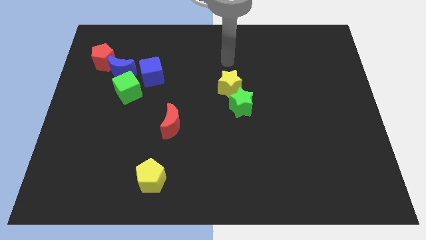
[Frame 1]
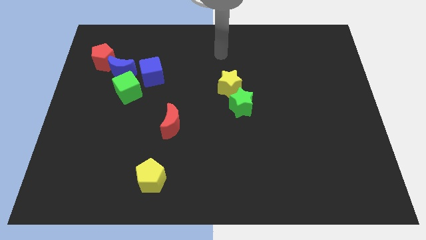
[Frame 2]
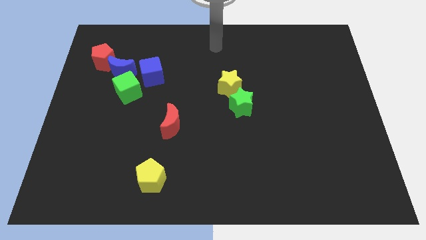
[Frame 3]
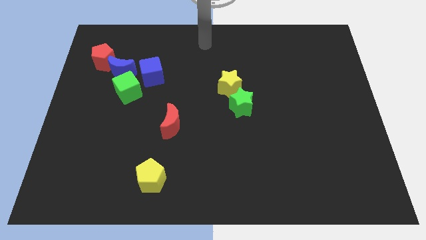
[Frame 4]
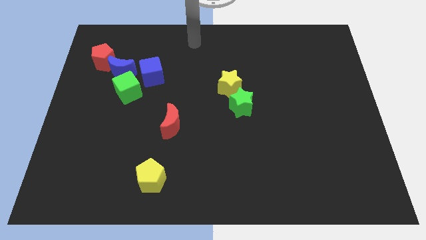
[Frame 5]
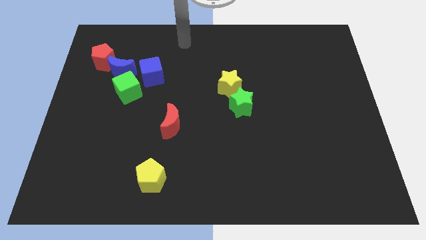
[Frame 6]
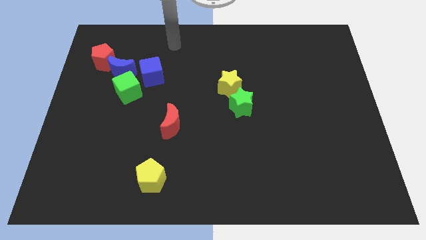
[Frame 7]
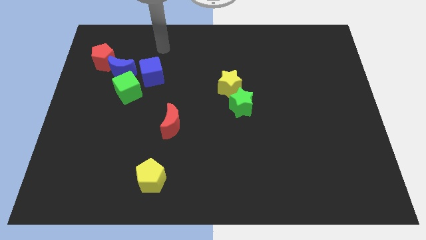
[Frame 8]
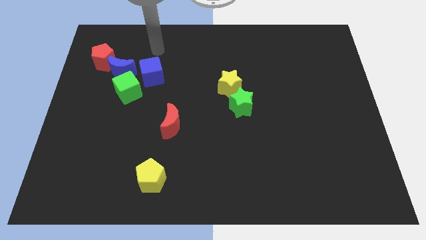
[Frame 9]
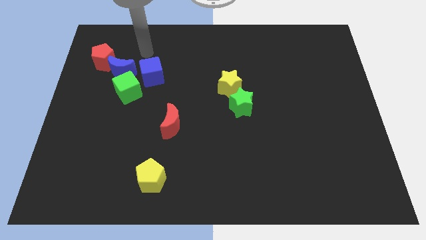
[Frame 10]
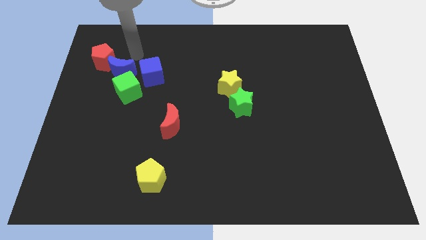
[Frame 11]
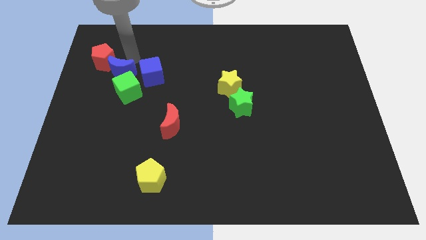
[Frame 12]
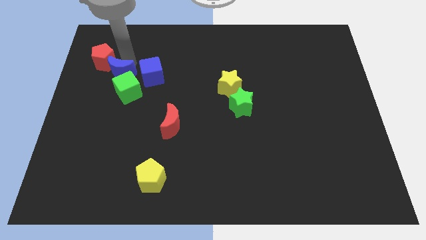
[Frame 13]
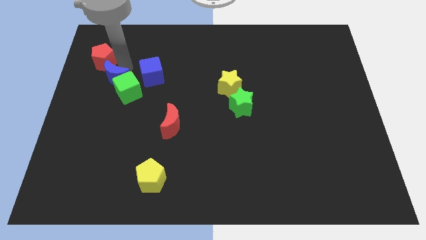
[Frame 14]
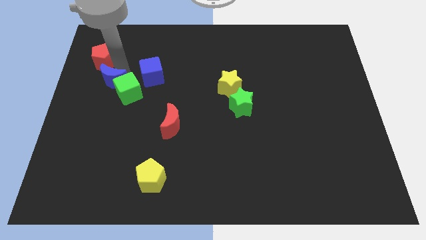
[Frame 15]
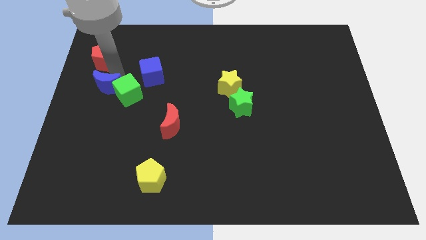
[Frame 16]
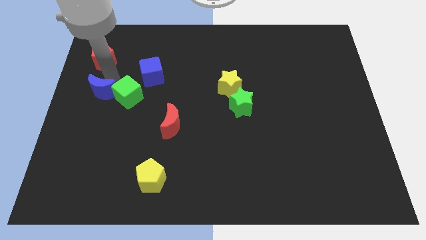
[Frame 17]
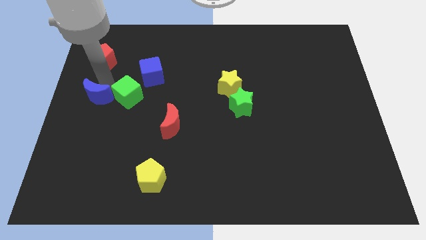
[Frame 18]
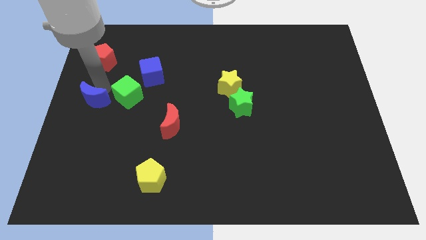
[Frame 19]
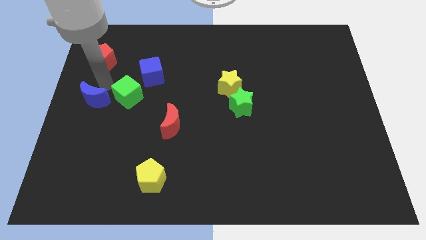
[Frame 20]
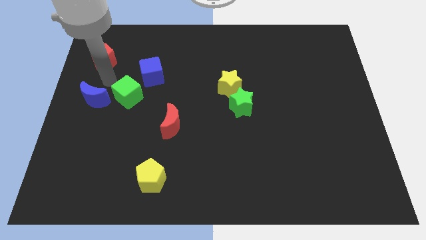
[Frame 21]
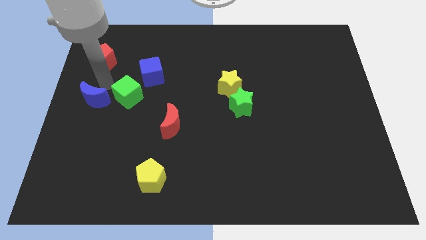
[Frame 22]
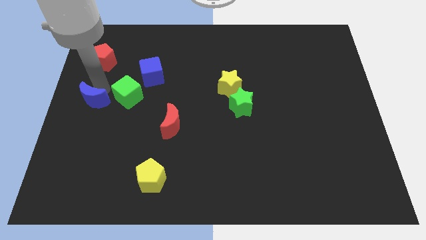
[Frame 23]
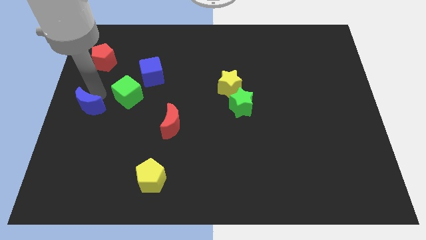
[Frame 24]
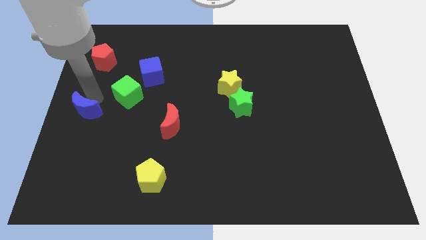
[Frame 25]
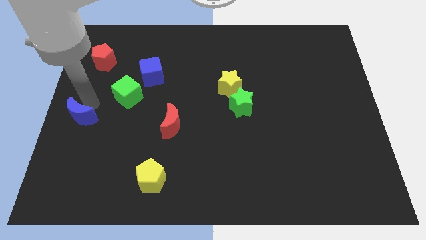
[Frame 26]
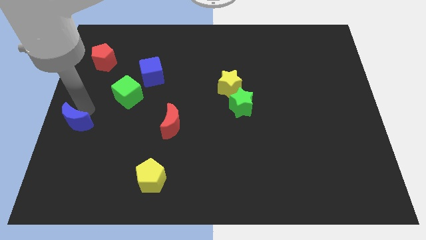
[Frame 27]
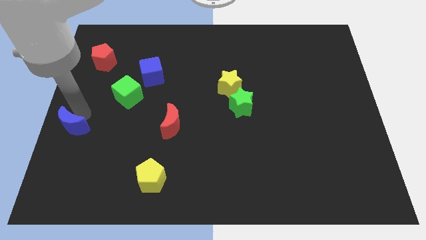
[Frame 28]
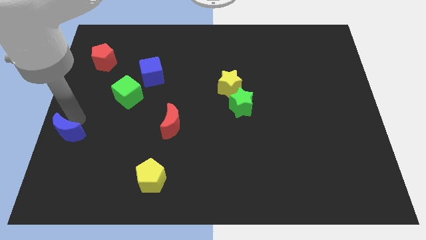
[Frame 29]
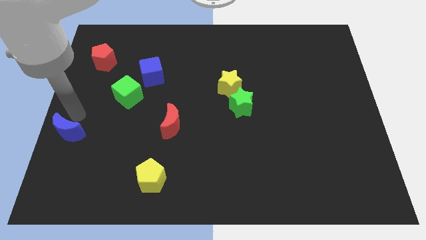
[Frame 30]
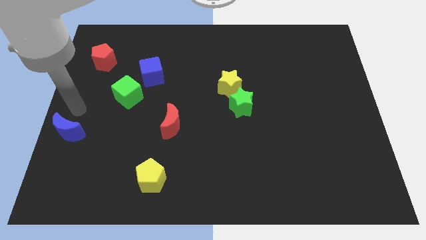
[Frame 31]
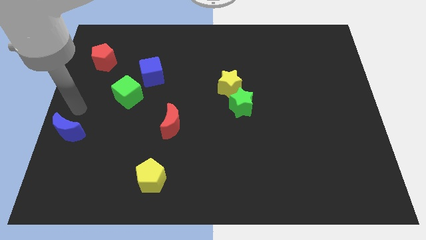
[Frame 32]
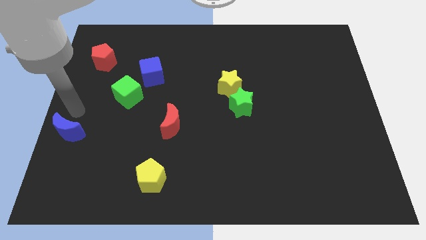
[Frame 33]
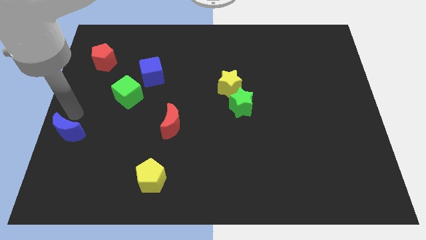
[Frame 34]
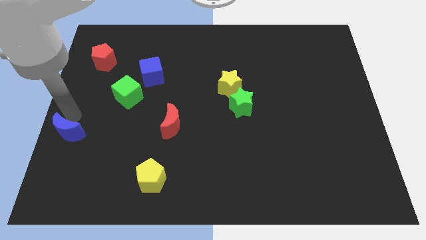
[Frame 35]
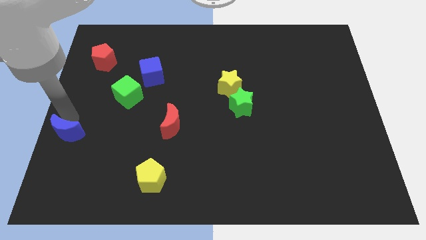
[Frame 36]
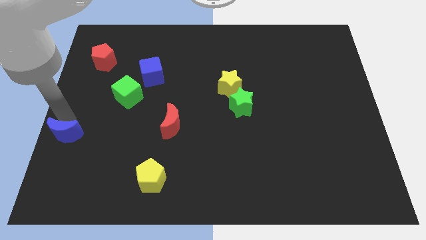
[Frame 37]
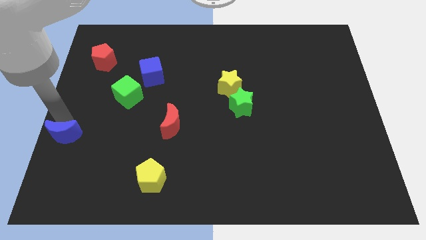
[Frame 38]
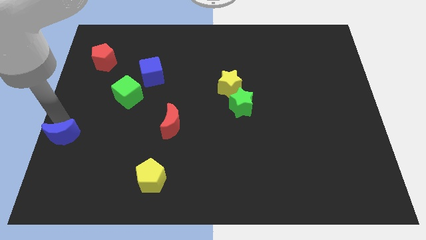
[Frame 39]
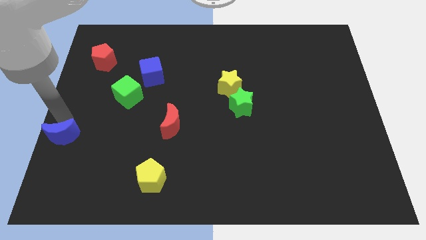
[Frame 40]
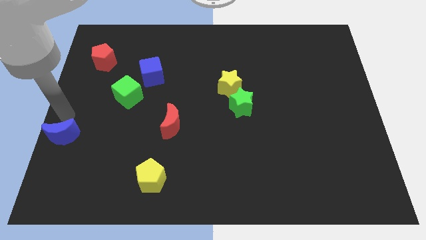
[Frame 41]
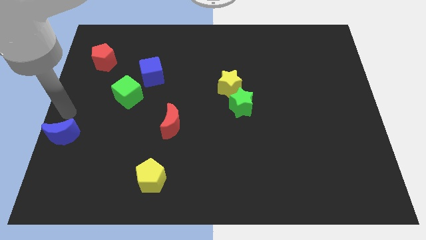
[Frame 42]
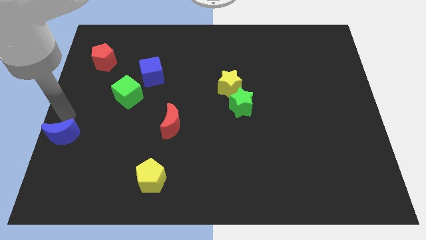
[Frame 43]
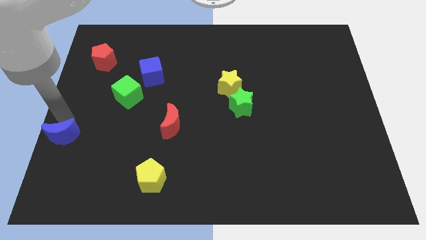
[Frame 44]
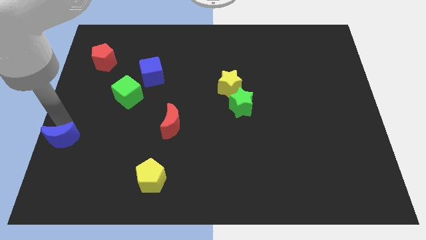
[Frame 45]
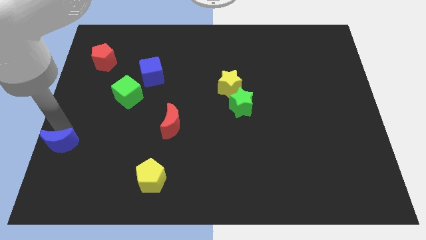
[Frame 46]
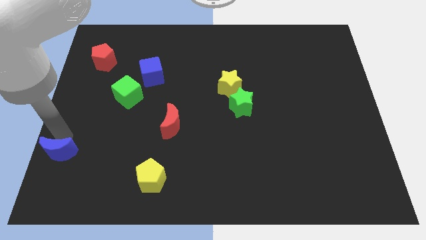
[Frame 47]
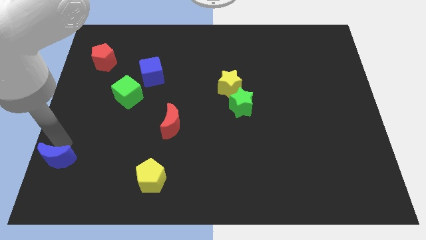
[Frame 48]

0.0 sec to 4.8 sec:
move the blue moon to the lower left corner

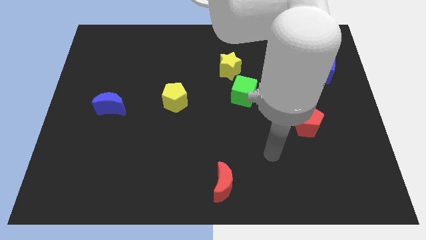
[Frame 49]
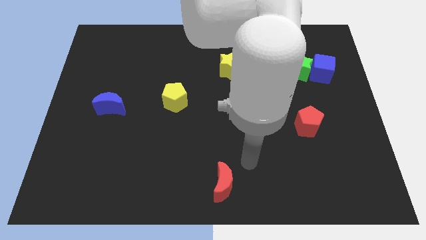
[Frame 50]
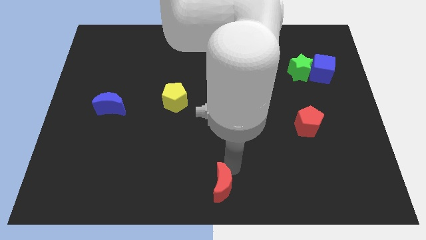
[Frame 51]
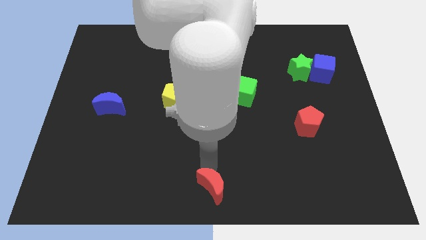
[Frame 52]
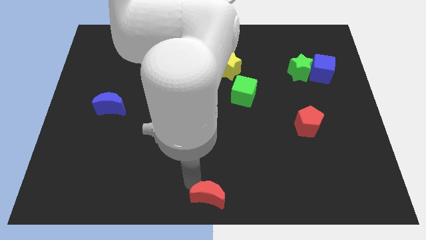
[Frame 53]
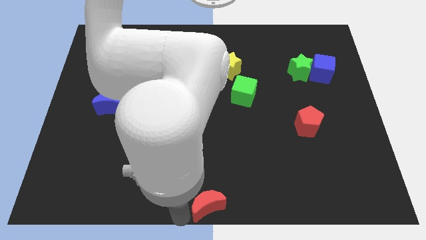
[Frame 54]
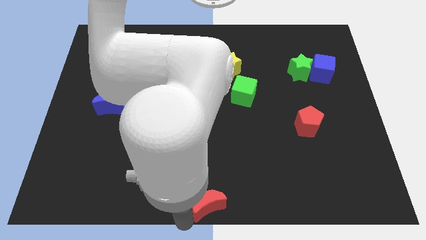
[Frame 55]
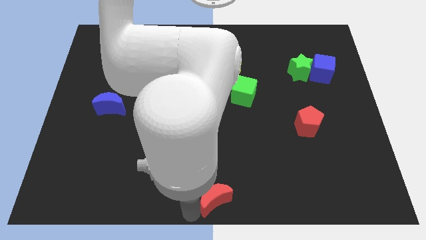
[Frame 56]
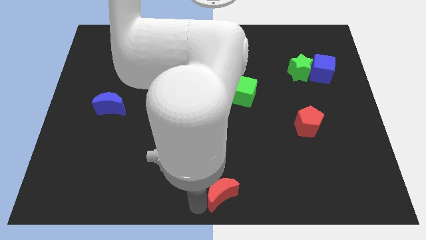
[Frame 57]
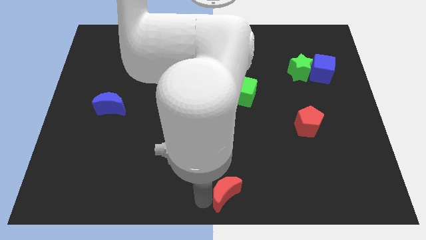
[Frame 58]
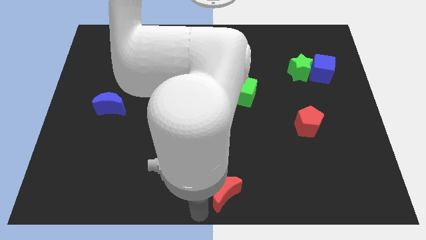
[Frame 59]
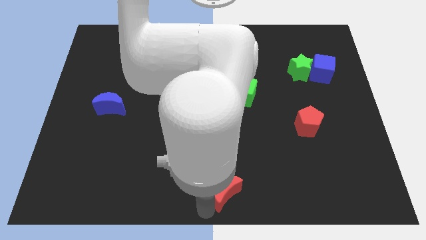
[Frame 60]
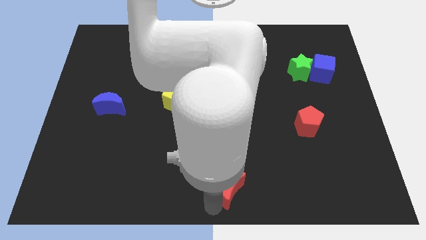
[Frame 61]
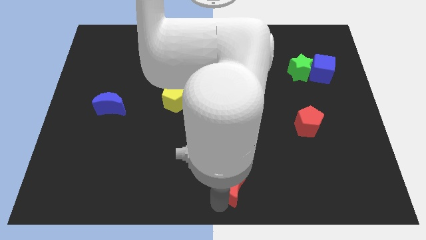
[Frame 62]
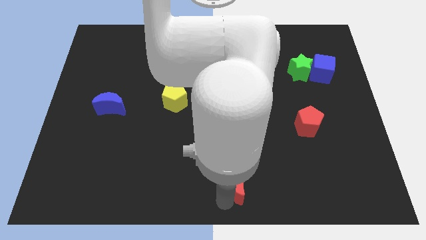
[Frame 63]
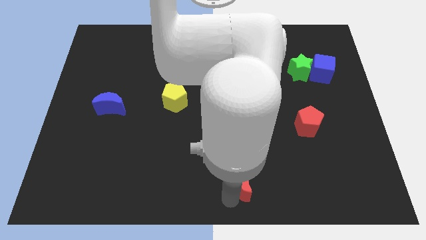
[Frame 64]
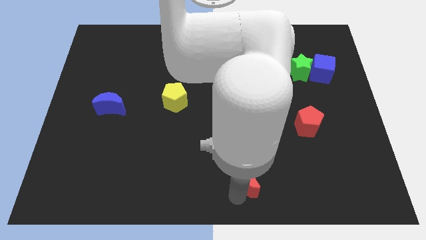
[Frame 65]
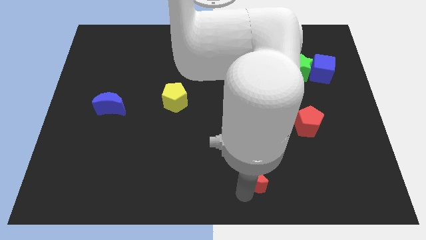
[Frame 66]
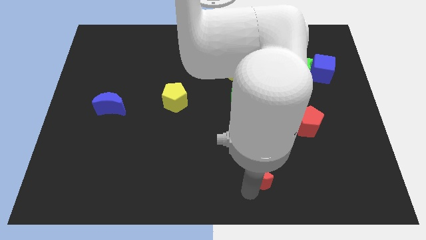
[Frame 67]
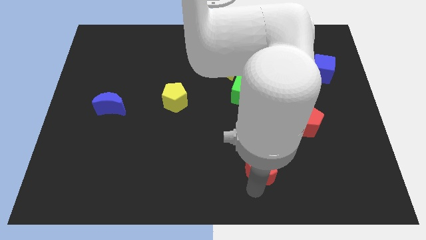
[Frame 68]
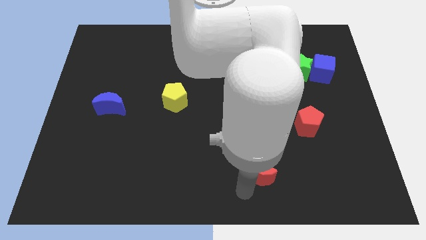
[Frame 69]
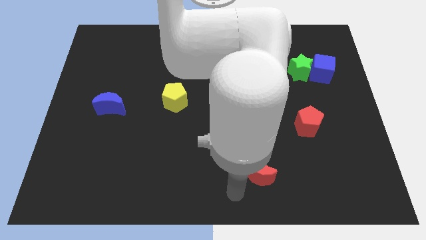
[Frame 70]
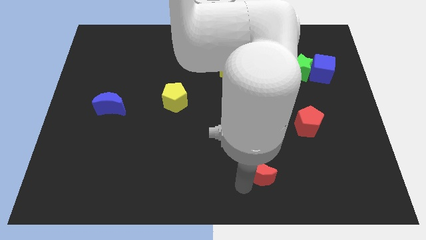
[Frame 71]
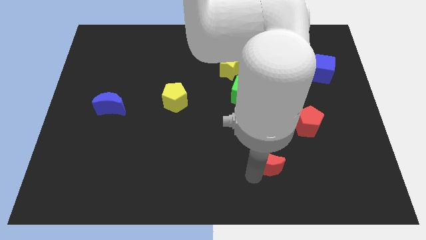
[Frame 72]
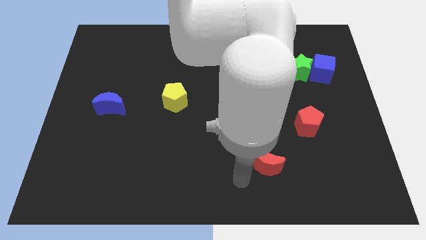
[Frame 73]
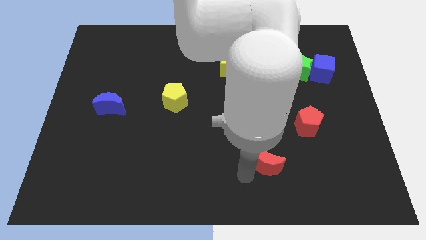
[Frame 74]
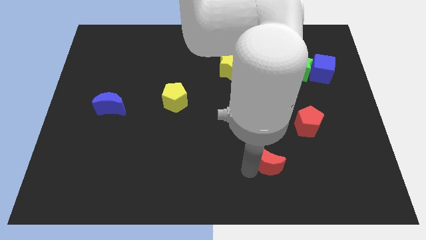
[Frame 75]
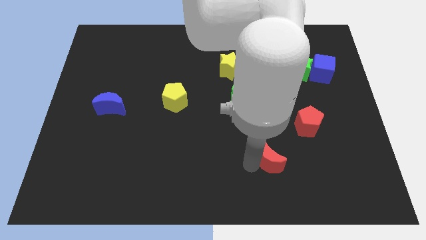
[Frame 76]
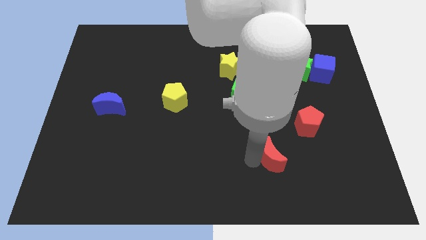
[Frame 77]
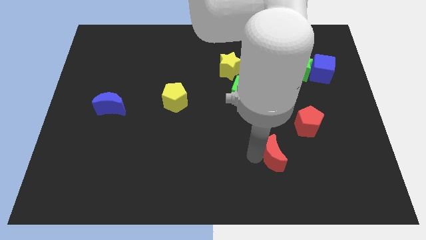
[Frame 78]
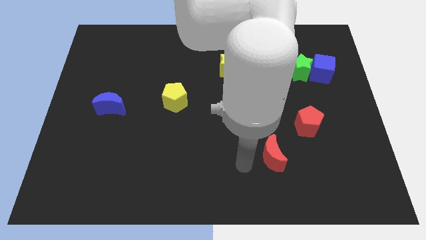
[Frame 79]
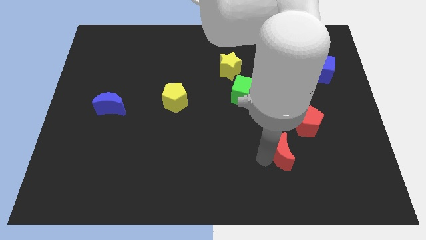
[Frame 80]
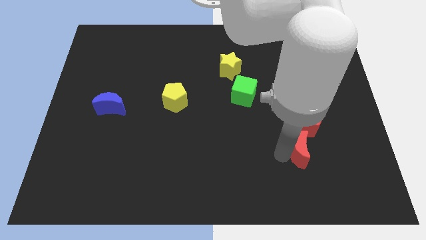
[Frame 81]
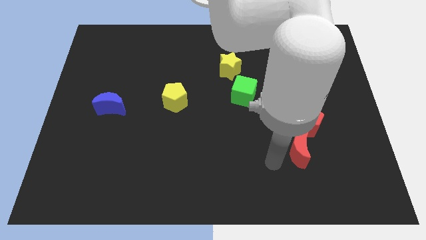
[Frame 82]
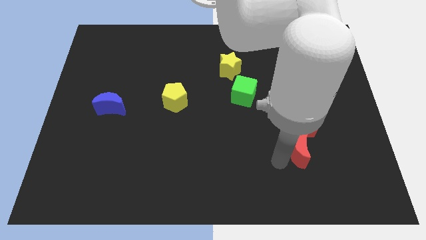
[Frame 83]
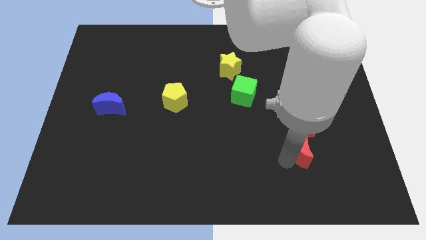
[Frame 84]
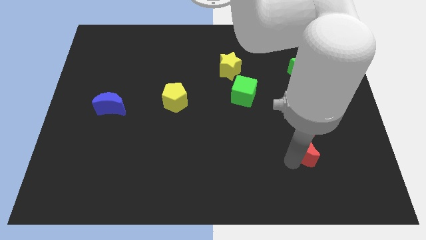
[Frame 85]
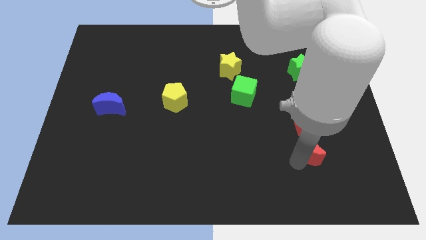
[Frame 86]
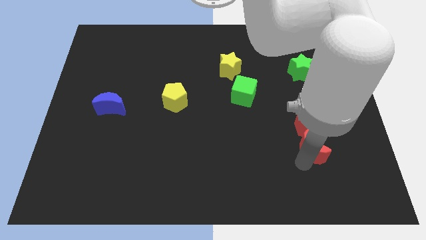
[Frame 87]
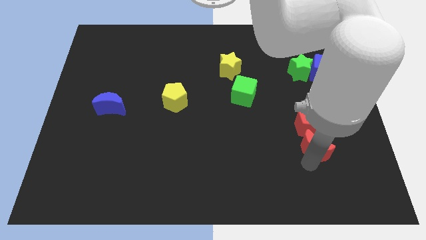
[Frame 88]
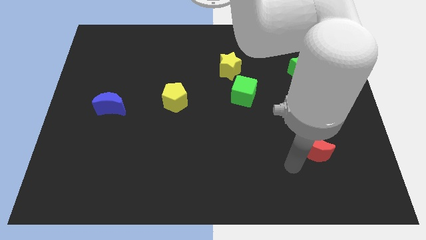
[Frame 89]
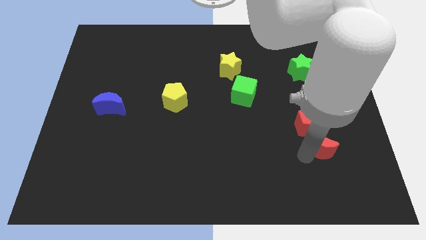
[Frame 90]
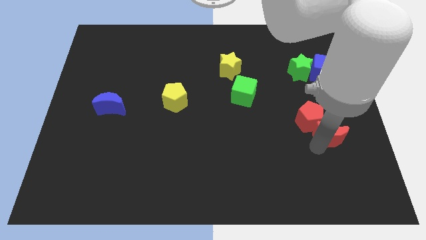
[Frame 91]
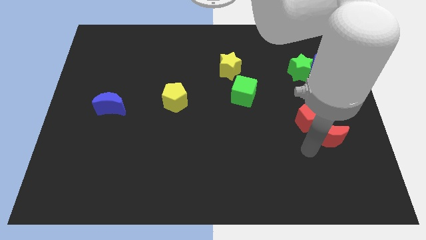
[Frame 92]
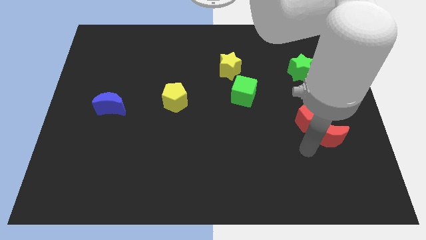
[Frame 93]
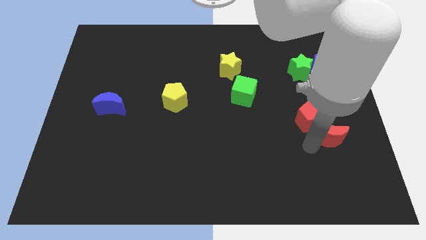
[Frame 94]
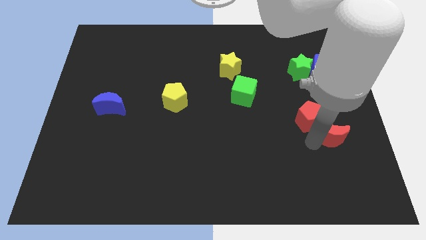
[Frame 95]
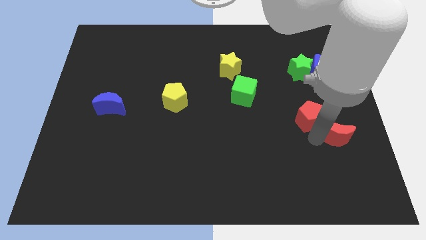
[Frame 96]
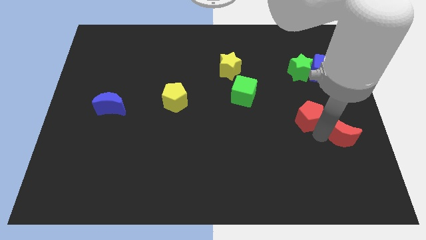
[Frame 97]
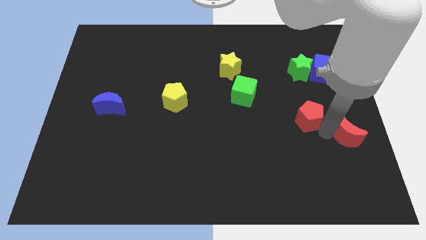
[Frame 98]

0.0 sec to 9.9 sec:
move the red moon to the right side
